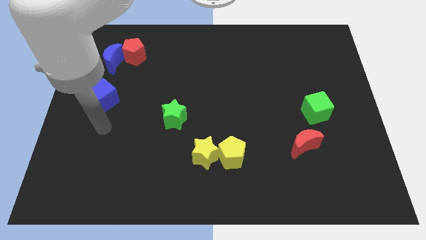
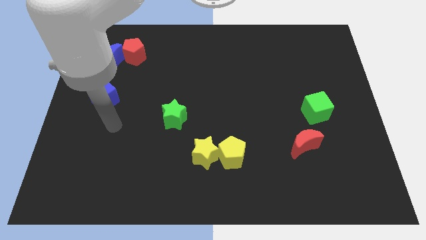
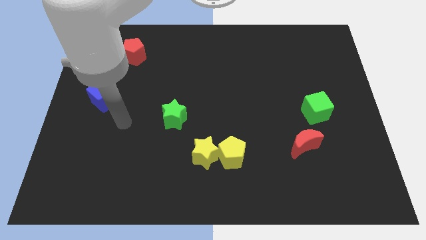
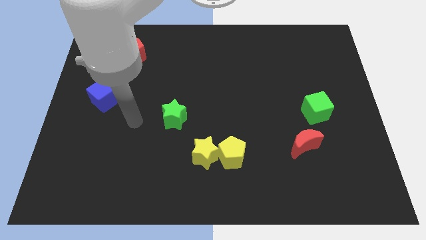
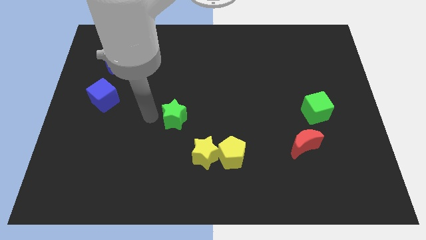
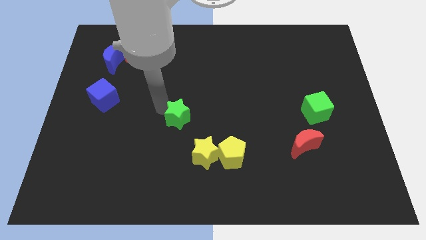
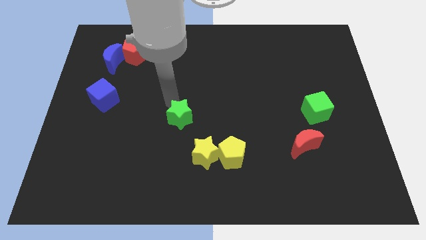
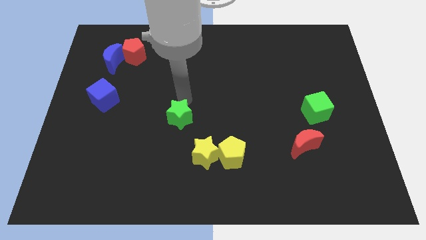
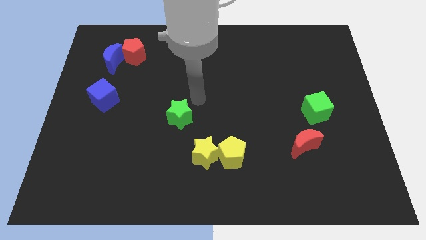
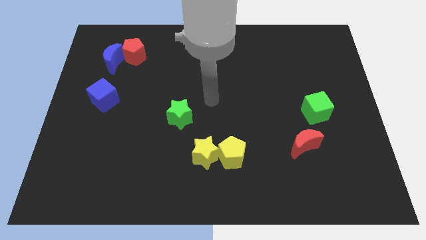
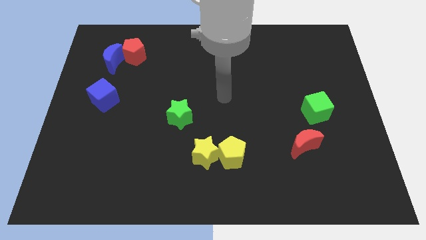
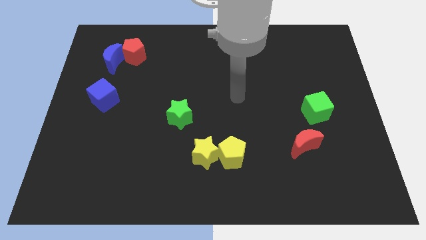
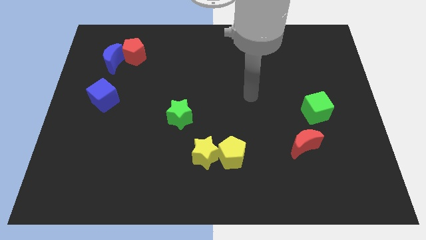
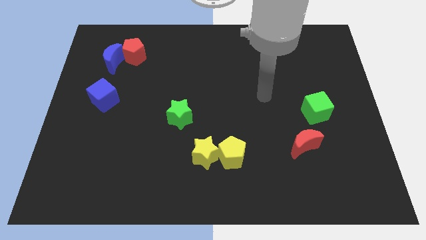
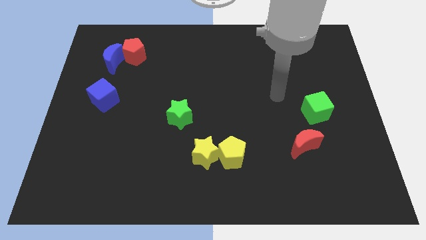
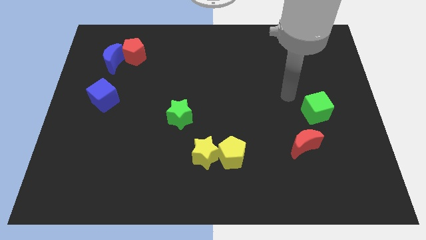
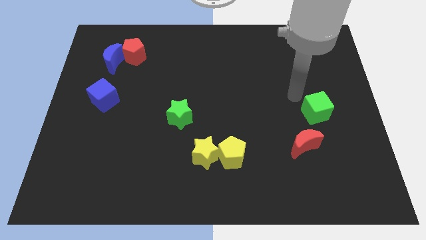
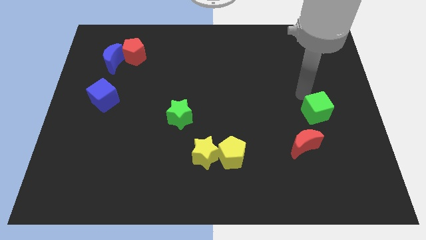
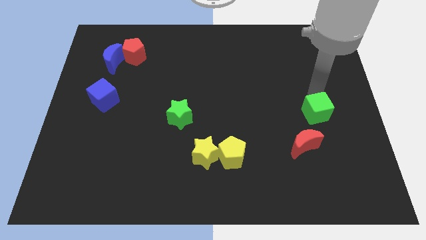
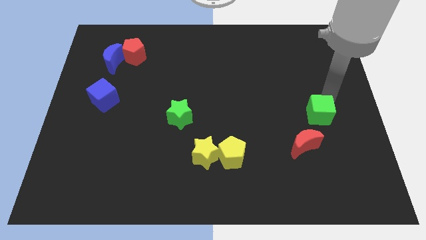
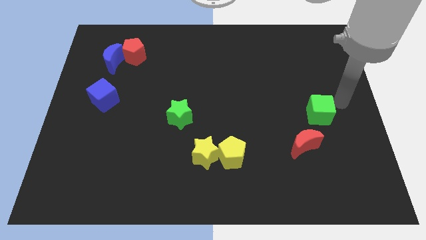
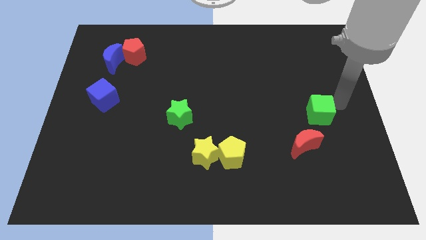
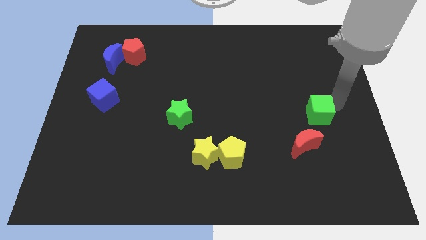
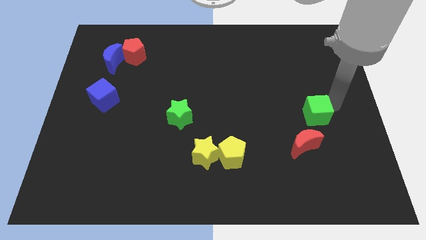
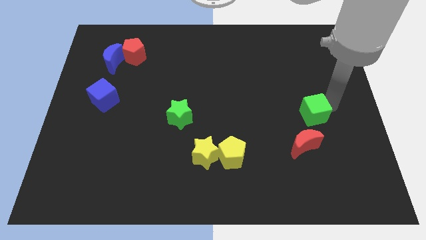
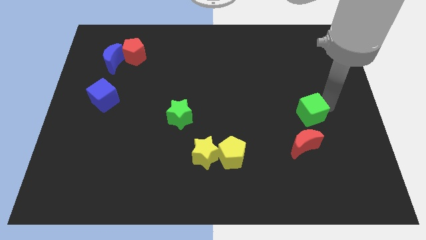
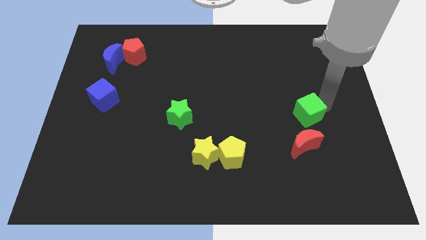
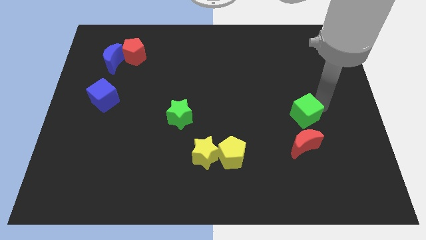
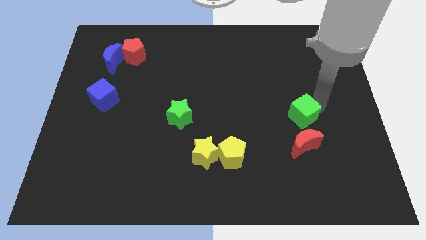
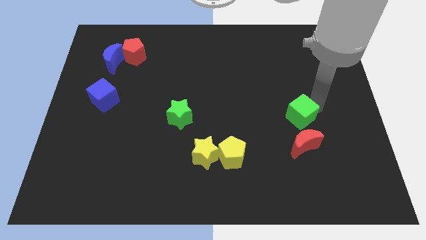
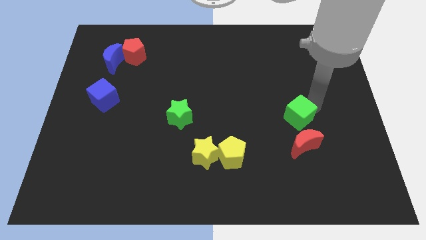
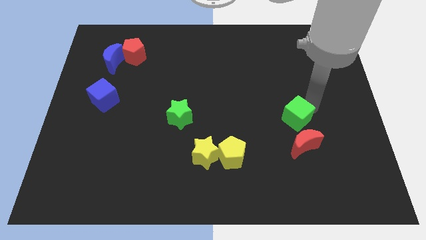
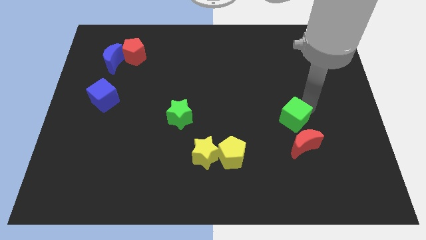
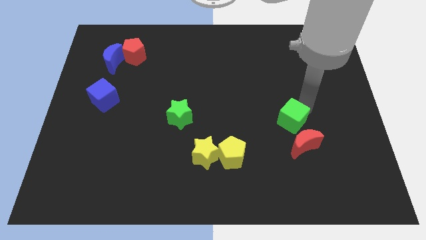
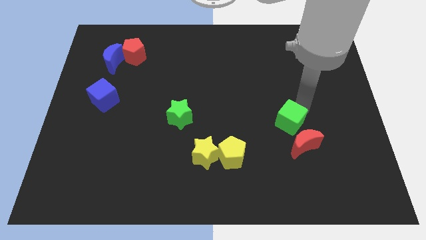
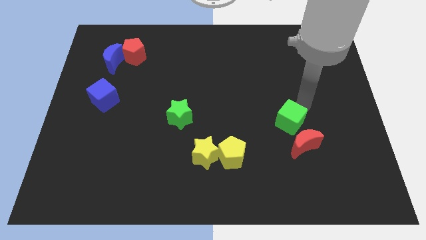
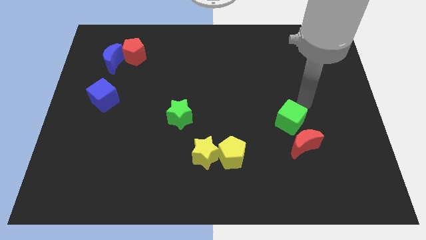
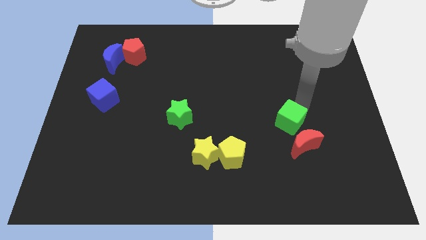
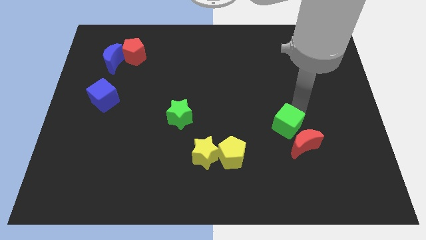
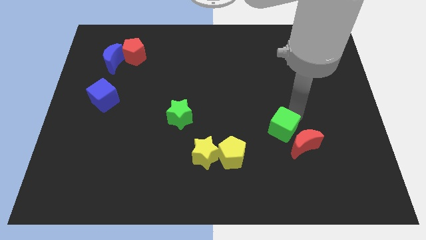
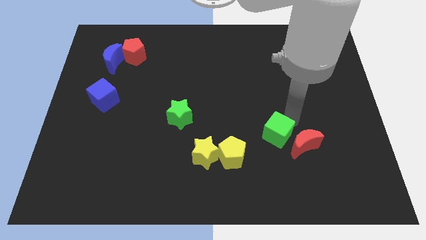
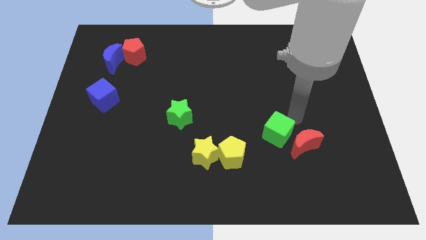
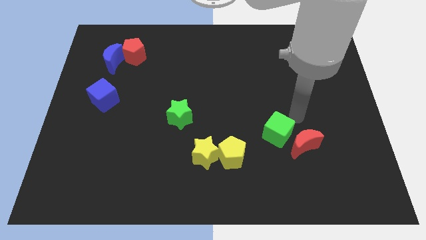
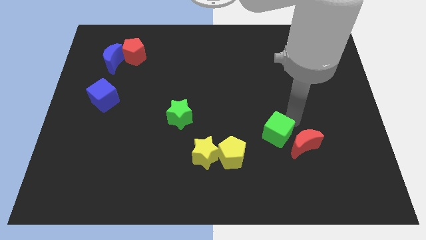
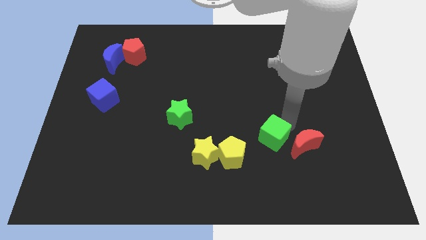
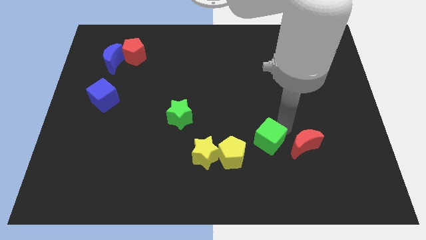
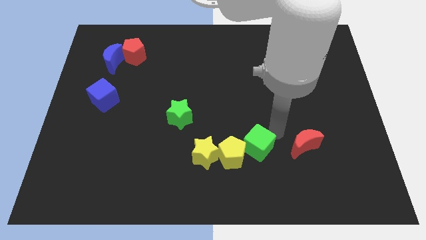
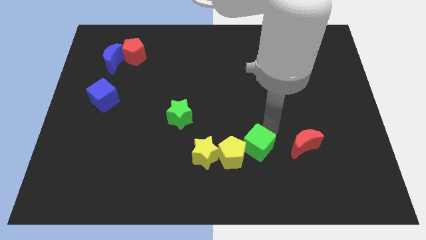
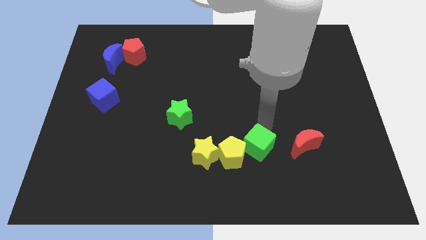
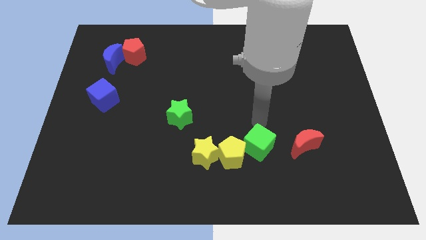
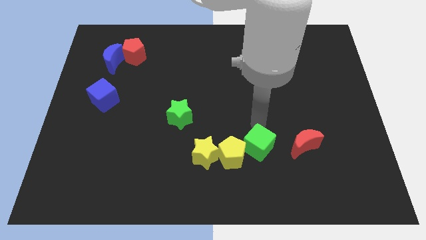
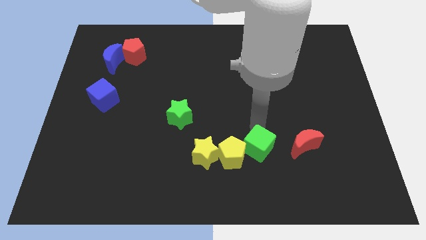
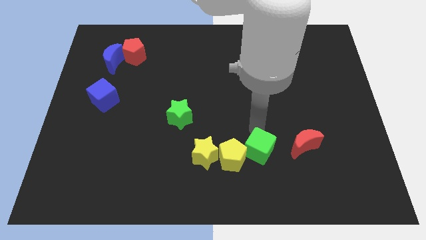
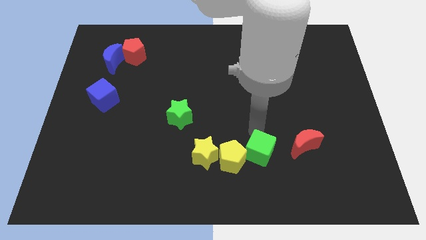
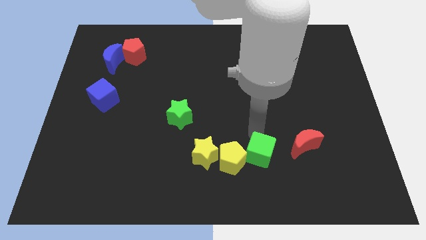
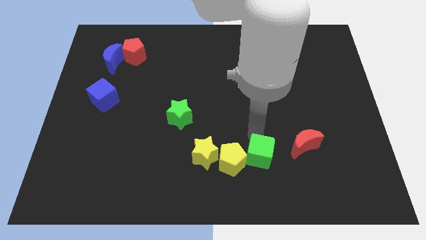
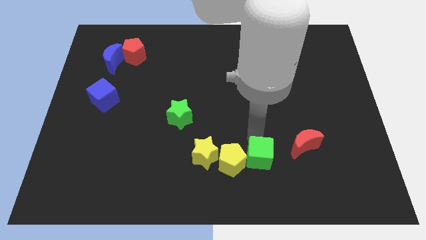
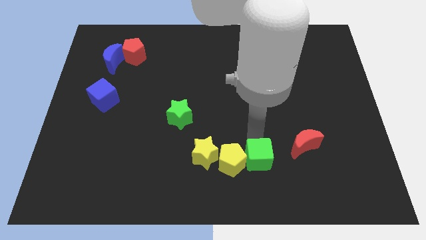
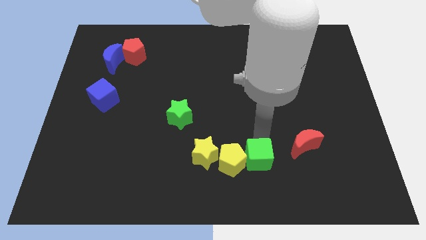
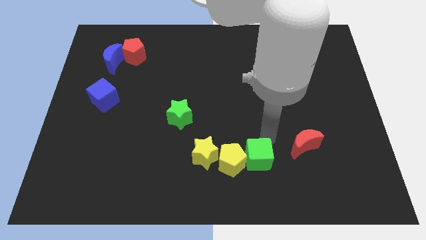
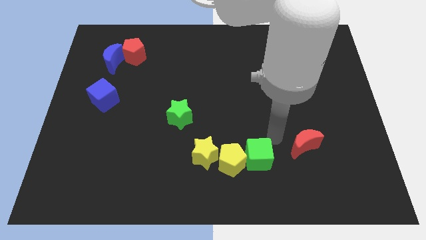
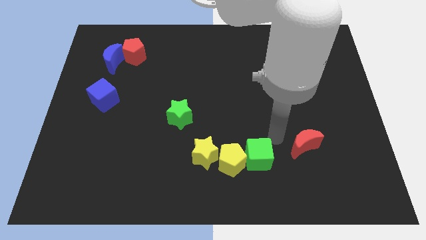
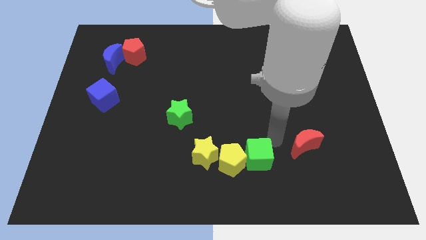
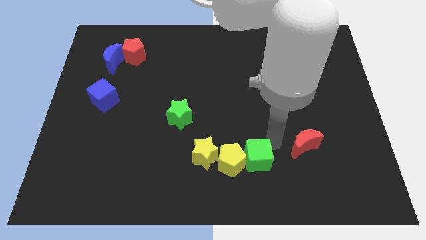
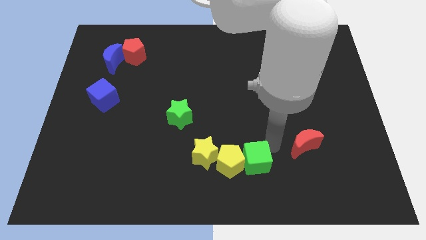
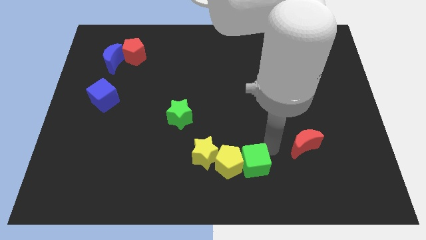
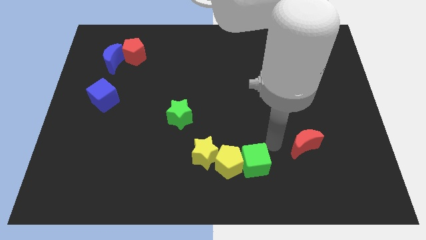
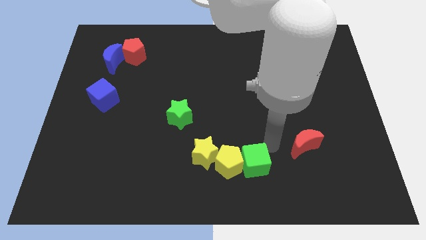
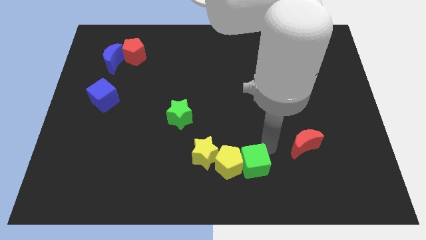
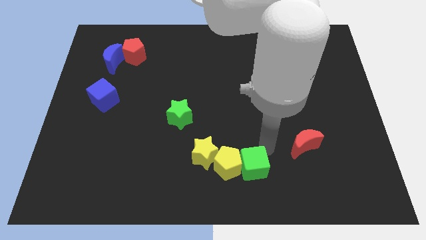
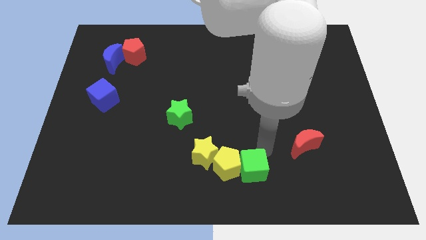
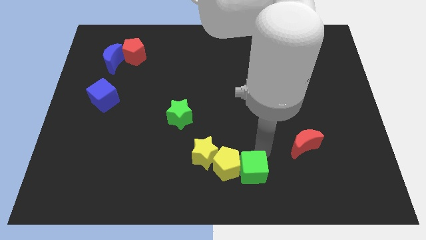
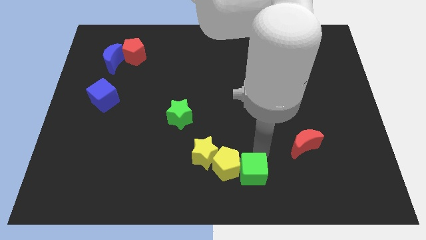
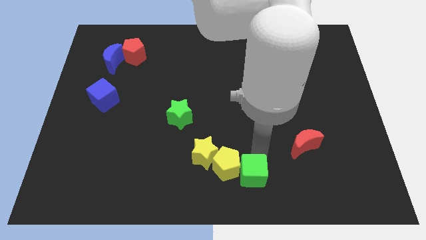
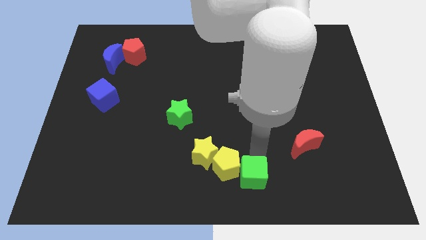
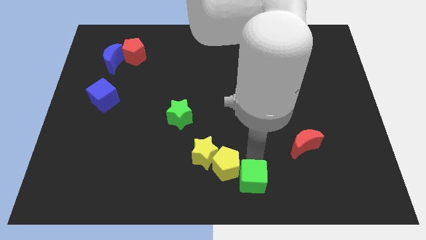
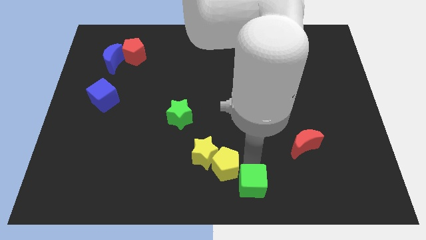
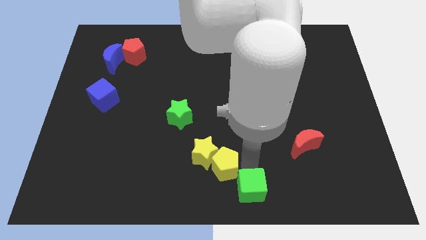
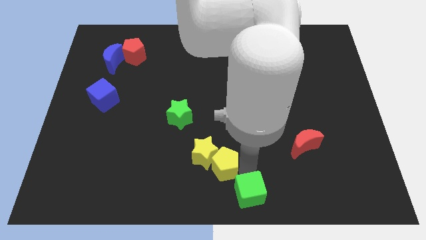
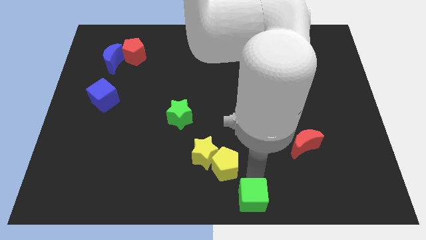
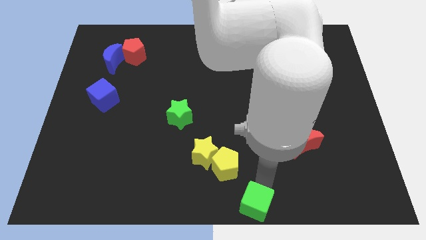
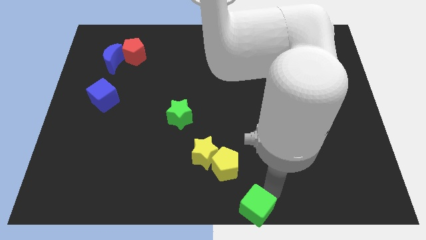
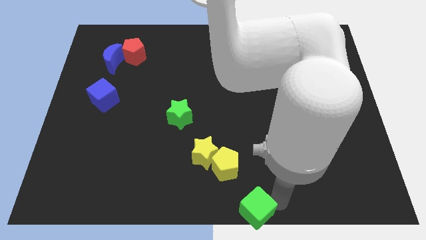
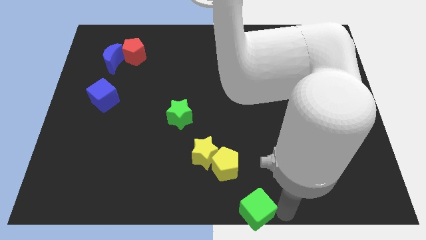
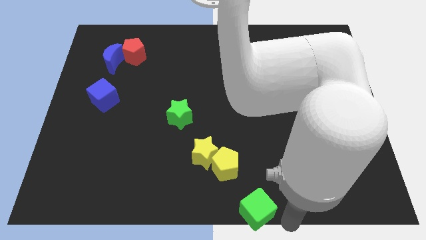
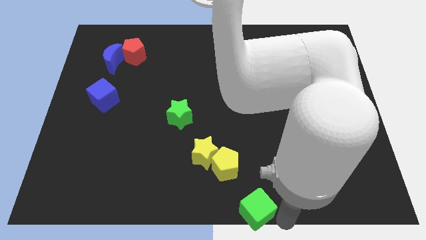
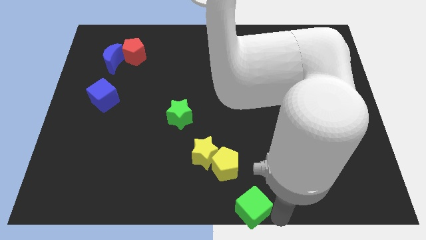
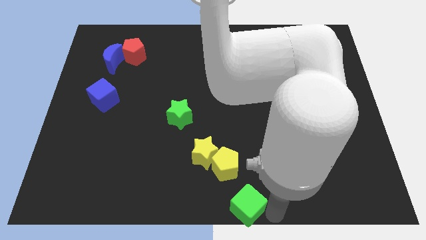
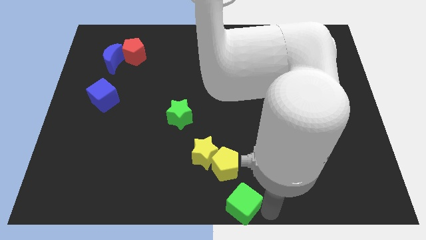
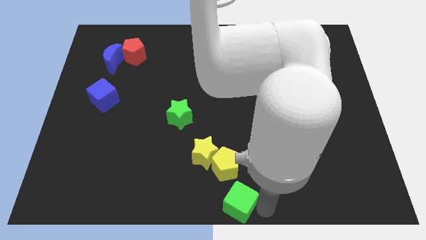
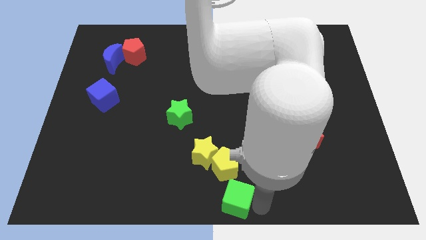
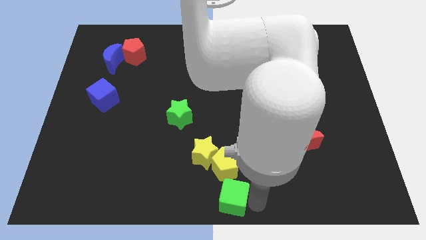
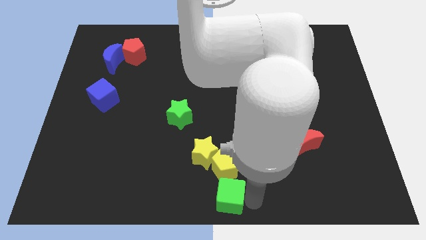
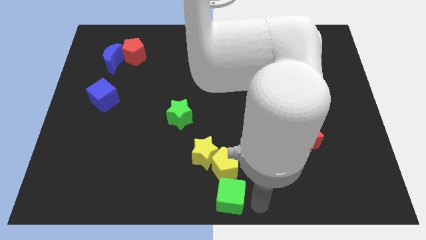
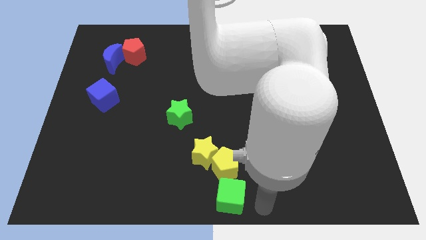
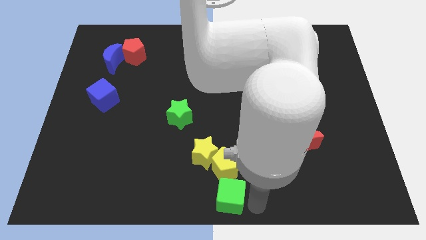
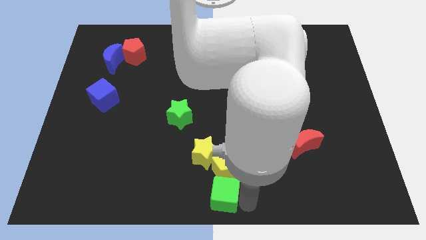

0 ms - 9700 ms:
push the green cube diagonally down and to the left of the yellow pentagon
